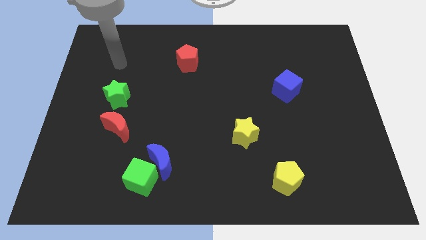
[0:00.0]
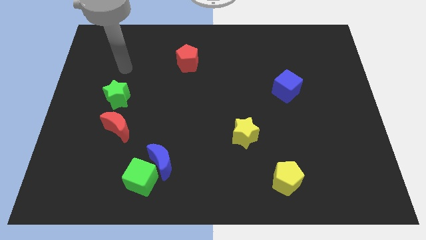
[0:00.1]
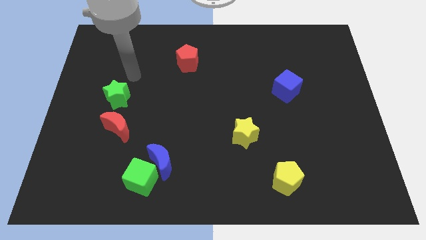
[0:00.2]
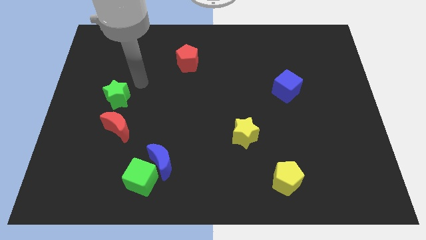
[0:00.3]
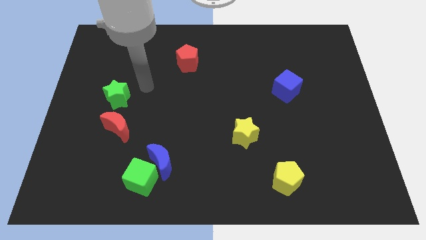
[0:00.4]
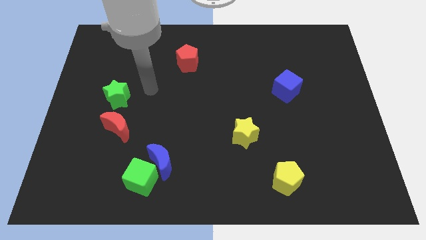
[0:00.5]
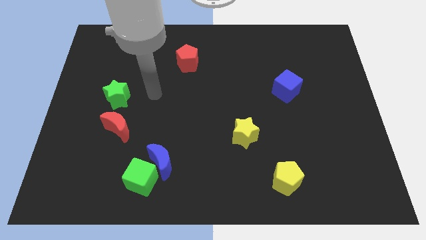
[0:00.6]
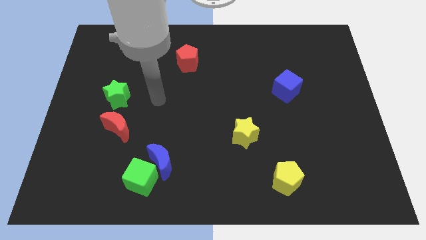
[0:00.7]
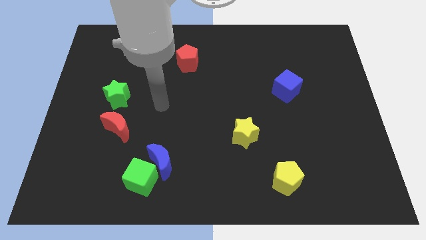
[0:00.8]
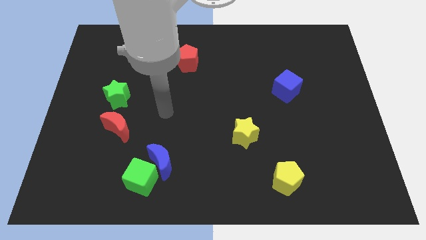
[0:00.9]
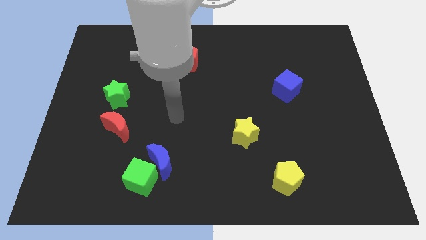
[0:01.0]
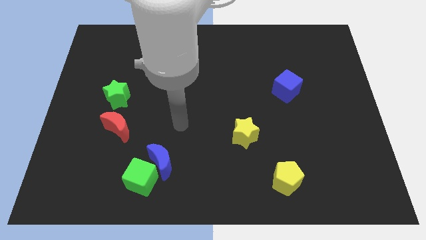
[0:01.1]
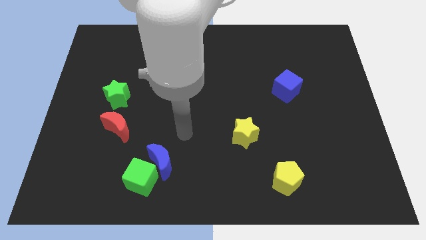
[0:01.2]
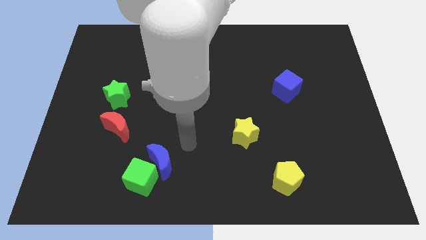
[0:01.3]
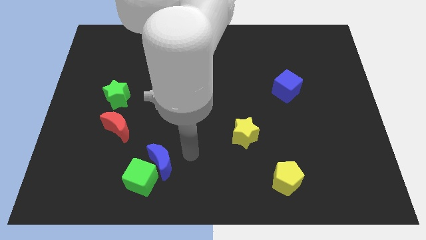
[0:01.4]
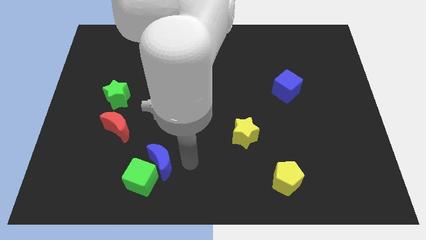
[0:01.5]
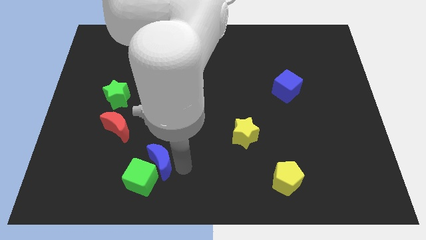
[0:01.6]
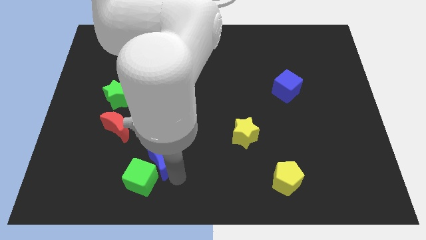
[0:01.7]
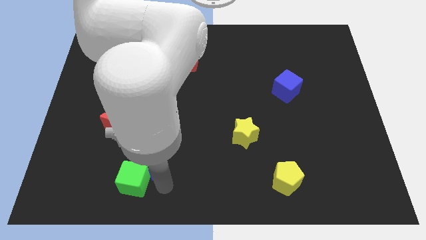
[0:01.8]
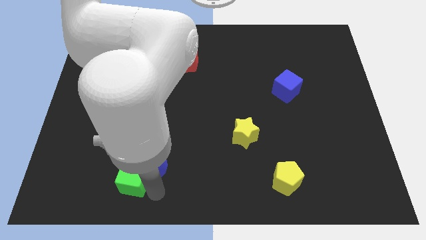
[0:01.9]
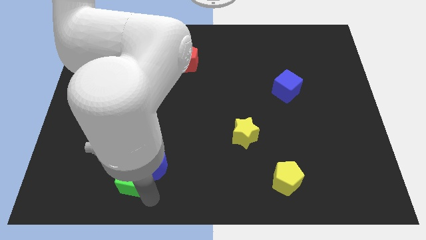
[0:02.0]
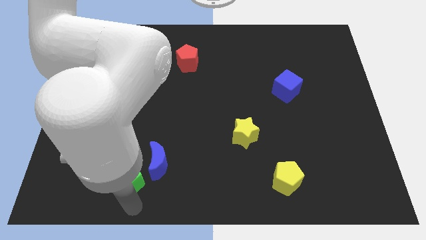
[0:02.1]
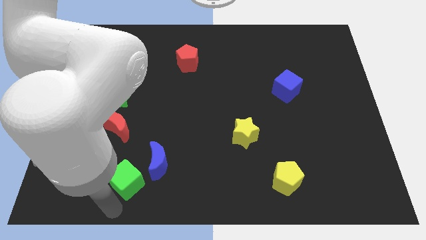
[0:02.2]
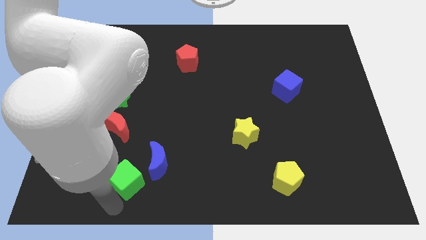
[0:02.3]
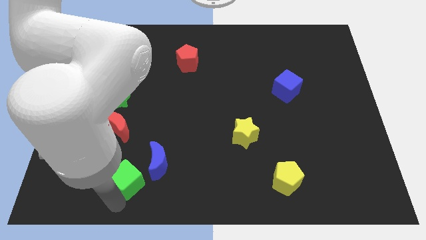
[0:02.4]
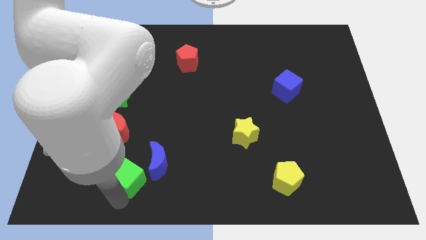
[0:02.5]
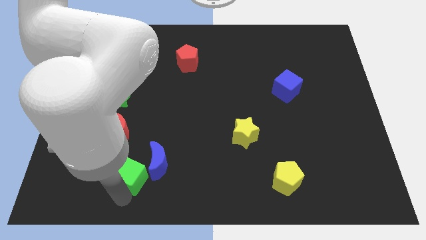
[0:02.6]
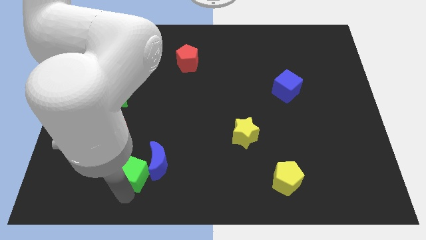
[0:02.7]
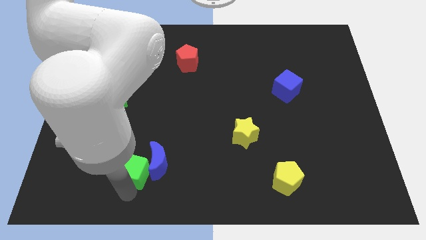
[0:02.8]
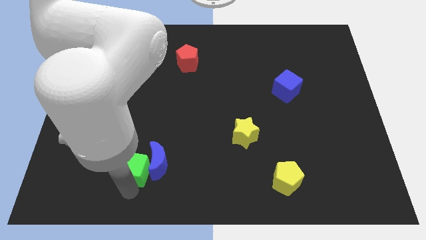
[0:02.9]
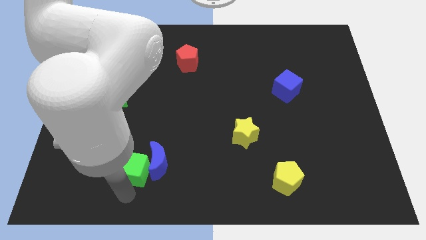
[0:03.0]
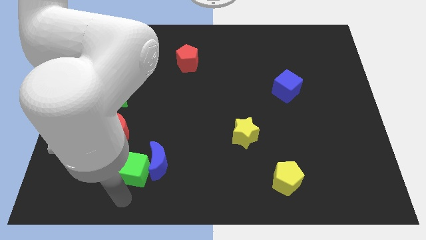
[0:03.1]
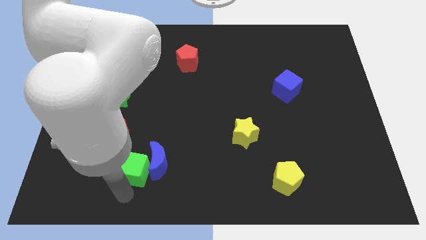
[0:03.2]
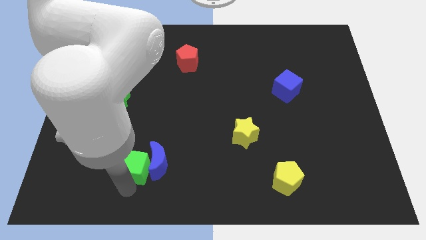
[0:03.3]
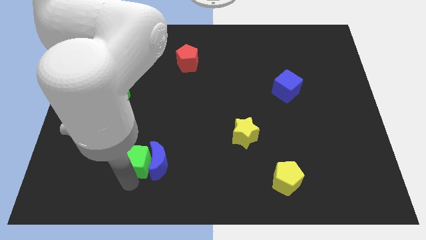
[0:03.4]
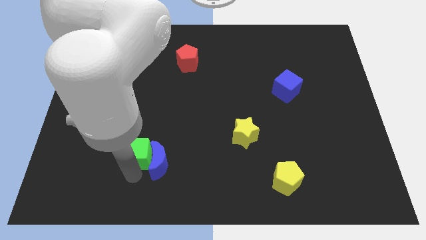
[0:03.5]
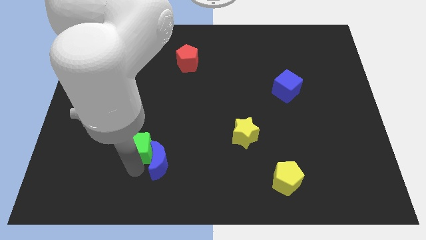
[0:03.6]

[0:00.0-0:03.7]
slightly push the green cube up

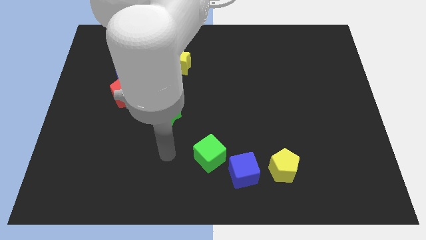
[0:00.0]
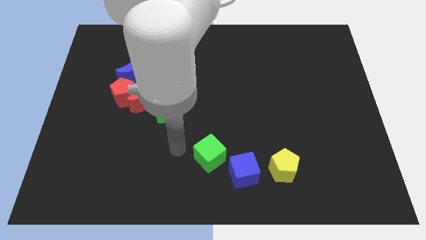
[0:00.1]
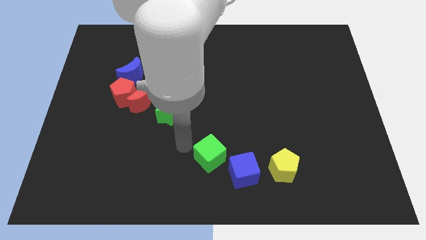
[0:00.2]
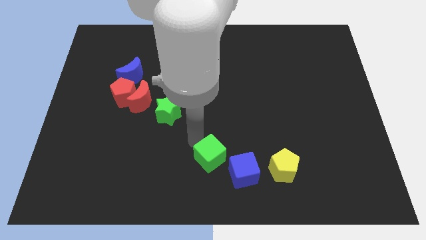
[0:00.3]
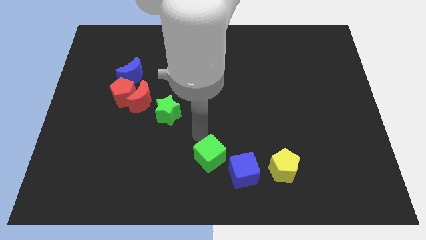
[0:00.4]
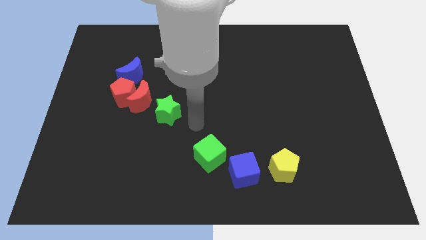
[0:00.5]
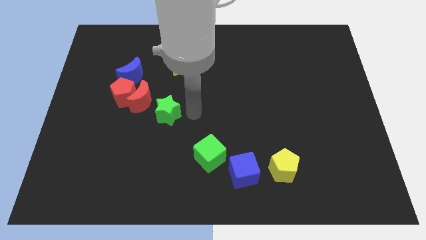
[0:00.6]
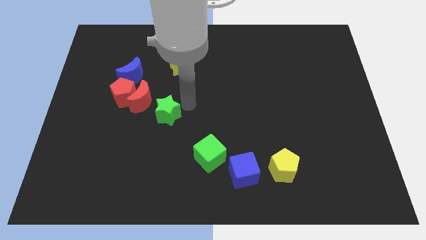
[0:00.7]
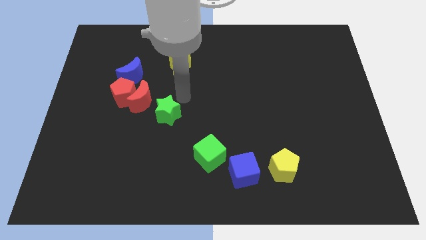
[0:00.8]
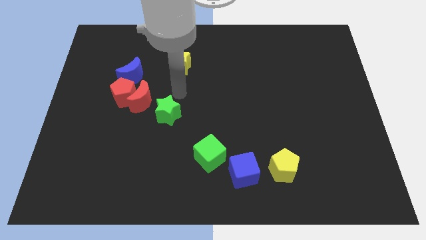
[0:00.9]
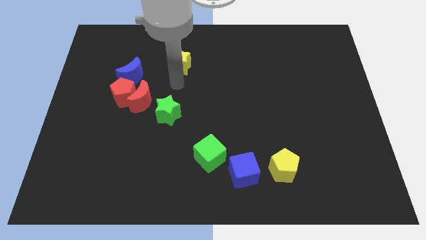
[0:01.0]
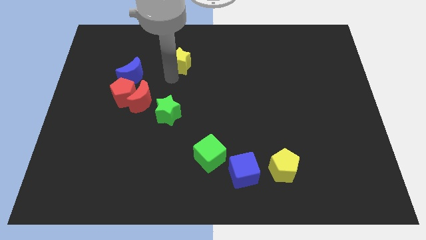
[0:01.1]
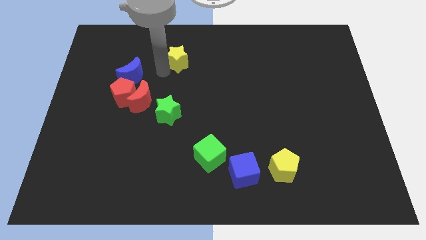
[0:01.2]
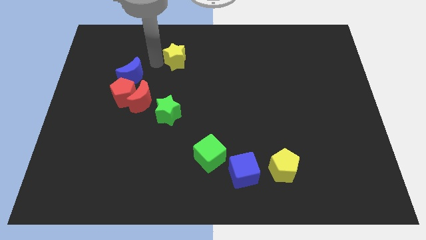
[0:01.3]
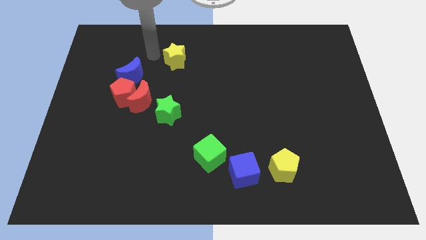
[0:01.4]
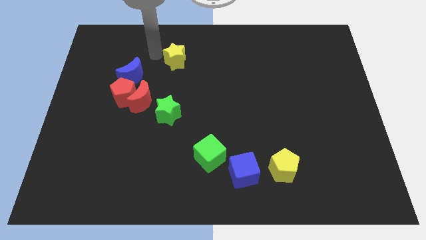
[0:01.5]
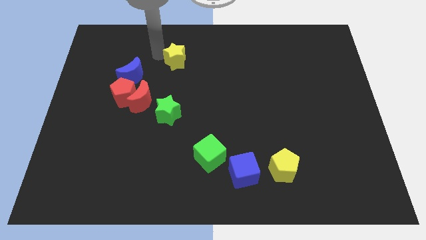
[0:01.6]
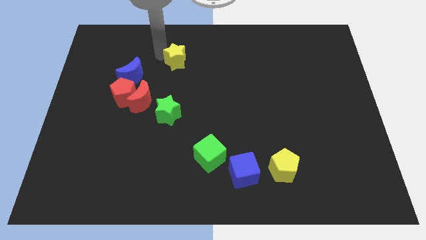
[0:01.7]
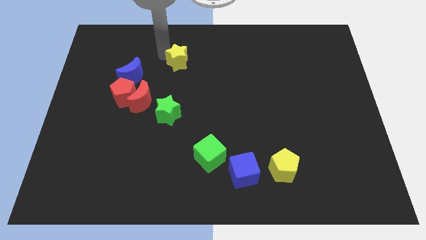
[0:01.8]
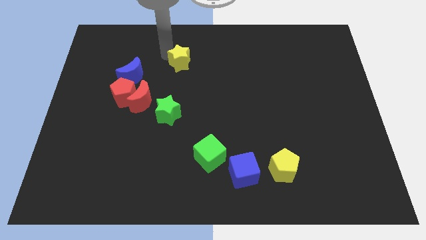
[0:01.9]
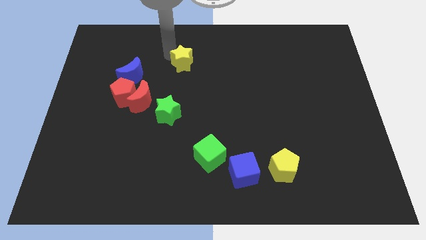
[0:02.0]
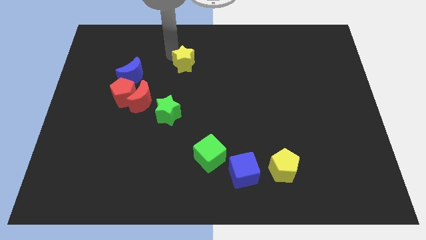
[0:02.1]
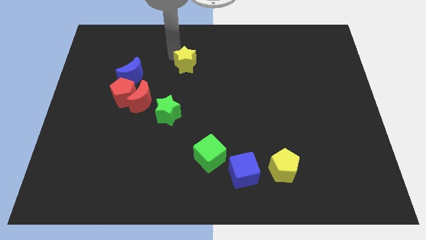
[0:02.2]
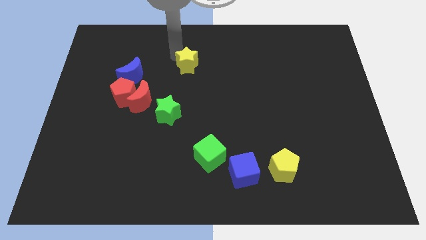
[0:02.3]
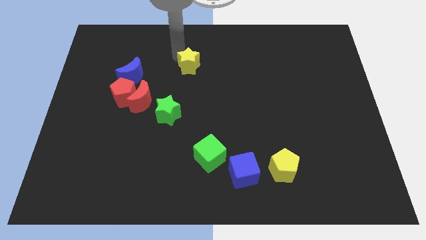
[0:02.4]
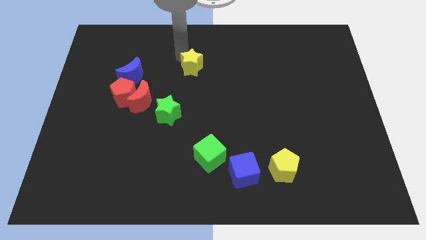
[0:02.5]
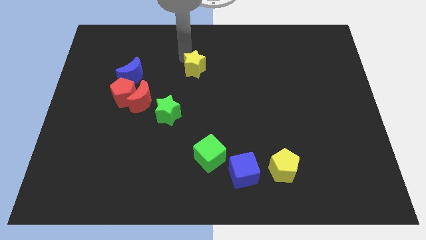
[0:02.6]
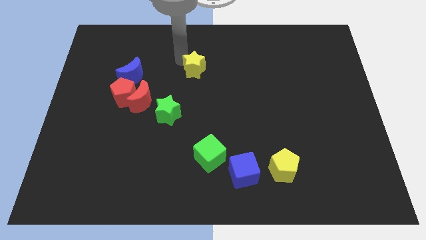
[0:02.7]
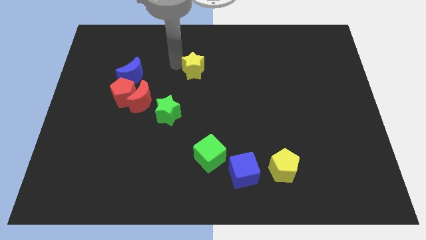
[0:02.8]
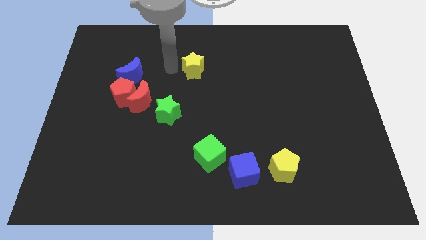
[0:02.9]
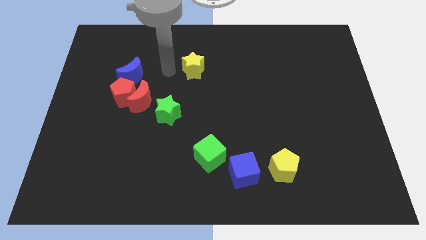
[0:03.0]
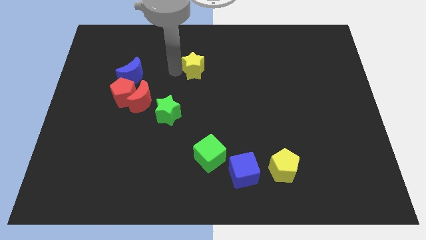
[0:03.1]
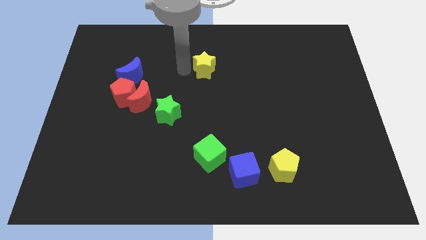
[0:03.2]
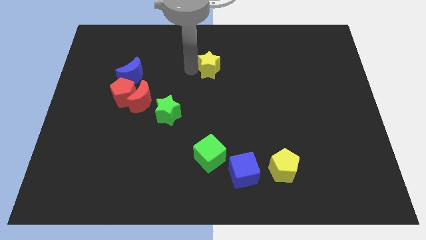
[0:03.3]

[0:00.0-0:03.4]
push the yellow star a little right

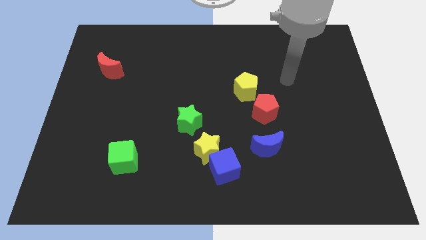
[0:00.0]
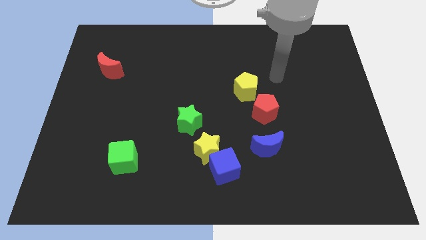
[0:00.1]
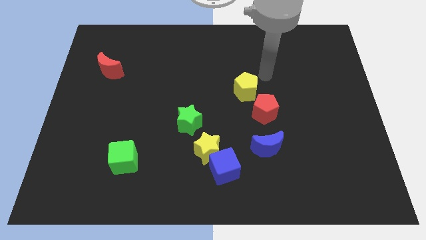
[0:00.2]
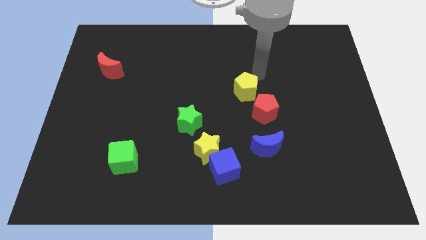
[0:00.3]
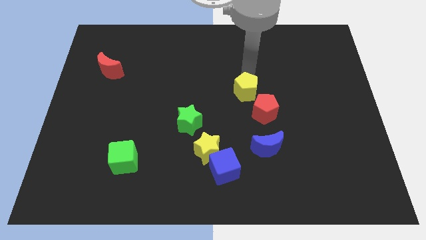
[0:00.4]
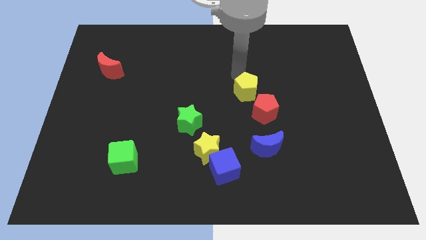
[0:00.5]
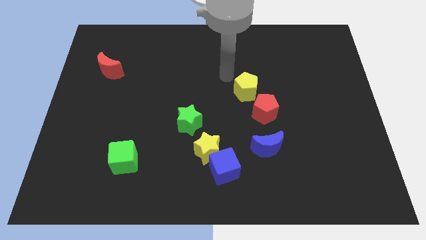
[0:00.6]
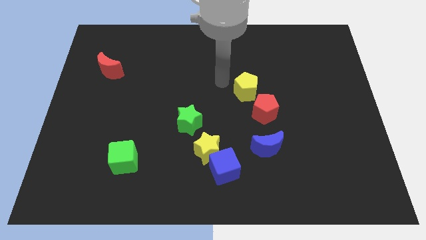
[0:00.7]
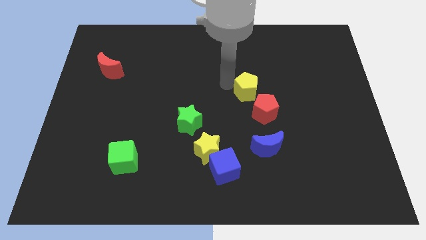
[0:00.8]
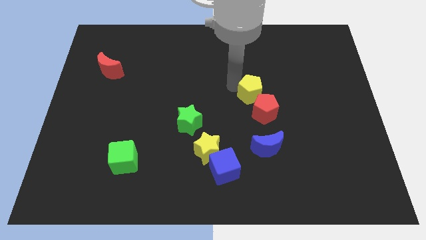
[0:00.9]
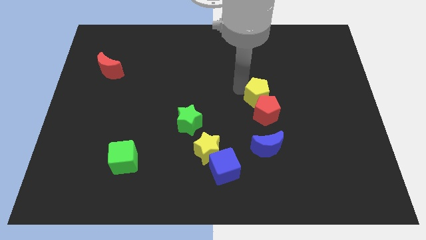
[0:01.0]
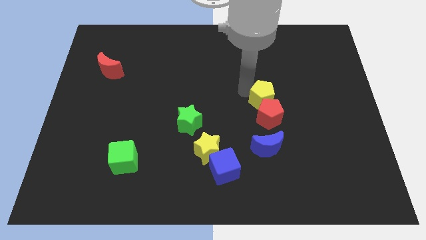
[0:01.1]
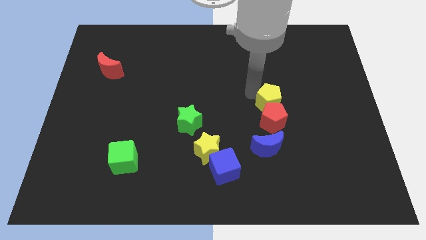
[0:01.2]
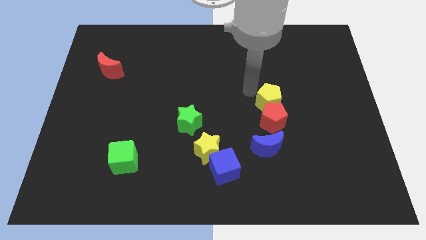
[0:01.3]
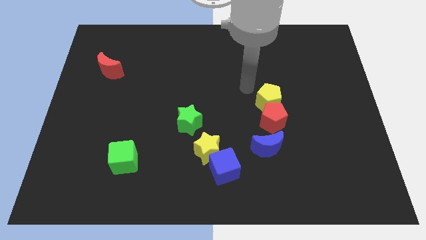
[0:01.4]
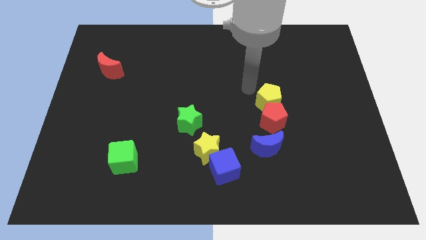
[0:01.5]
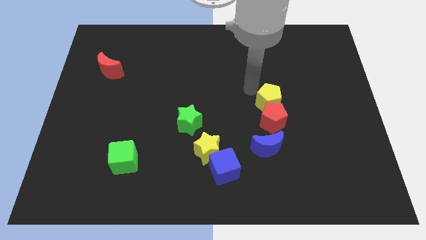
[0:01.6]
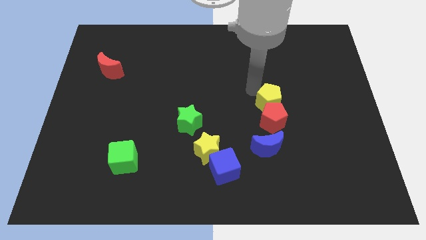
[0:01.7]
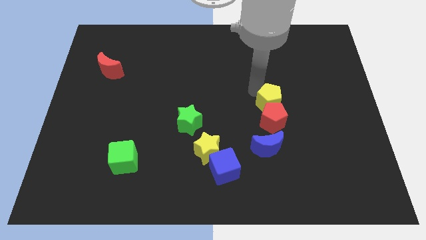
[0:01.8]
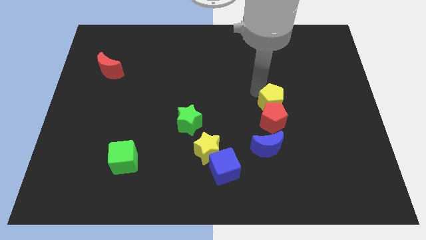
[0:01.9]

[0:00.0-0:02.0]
slide the yellow pentagon slightly diagonally downwards and to the right
